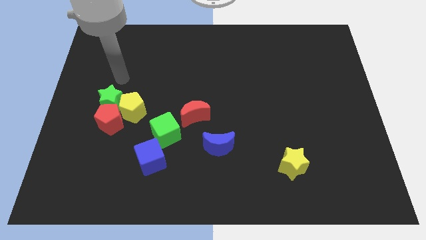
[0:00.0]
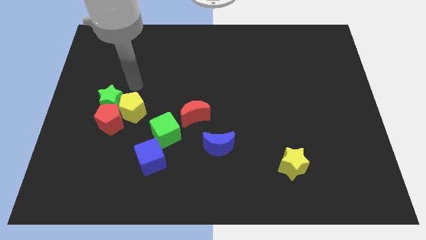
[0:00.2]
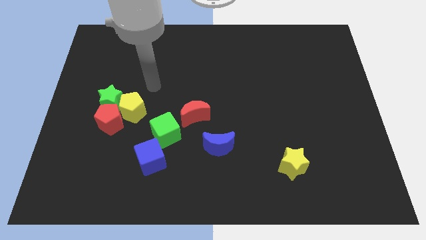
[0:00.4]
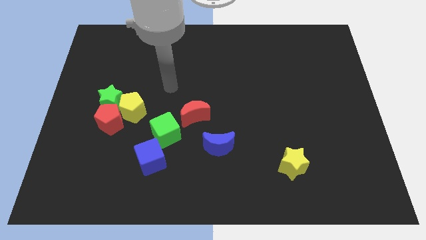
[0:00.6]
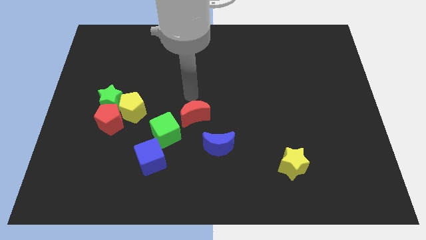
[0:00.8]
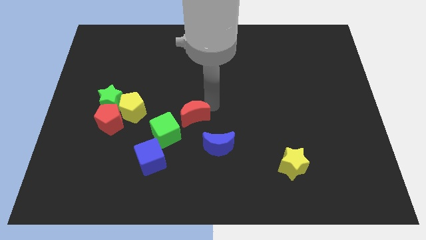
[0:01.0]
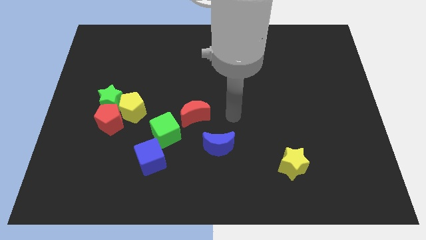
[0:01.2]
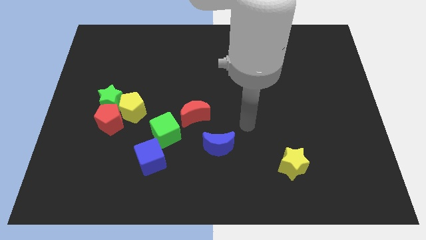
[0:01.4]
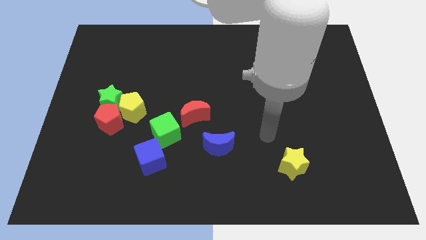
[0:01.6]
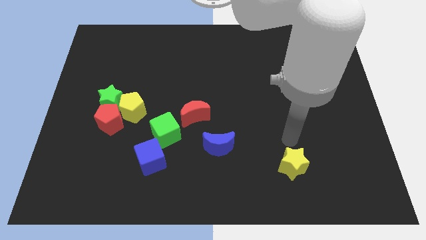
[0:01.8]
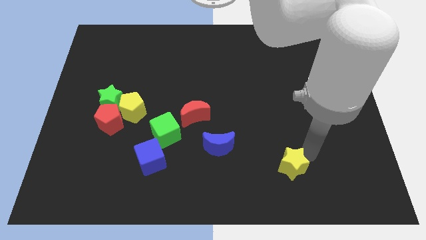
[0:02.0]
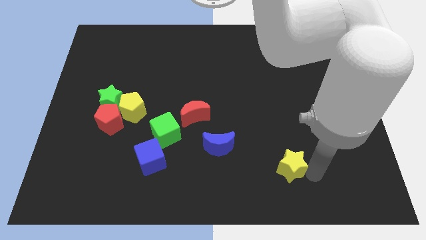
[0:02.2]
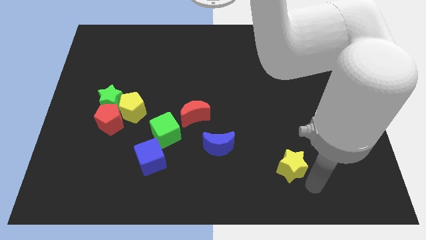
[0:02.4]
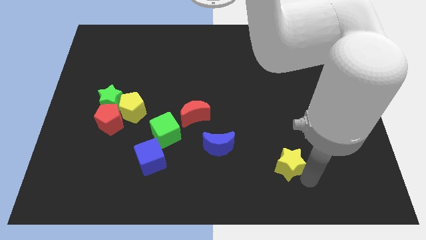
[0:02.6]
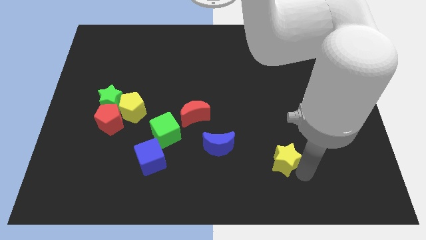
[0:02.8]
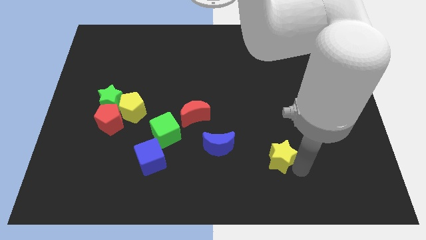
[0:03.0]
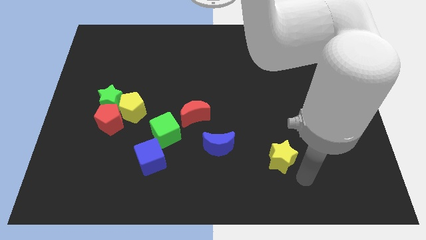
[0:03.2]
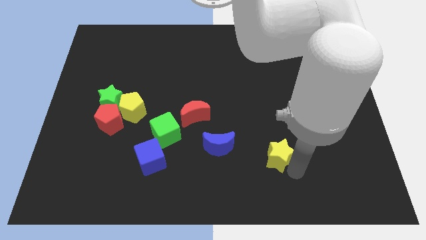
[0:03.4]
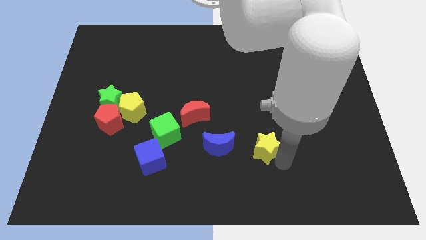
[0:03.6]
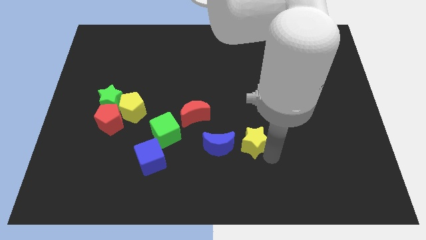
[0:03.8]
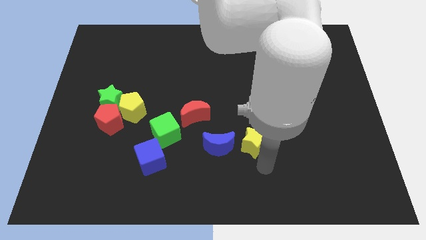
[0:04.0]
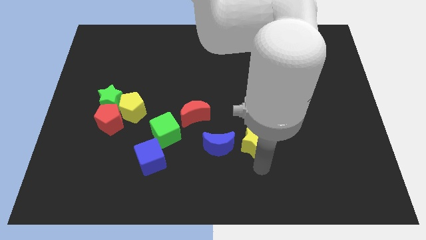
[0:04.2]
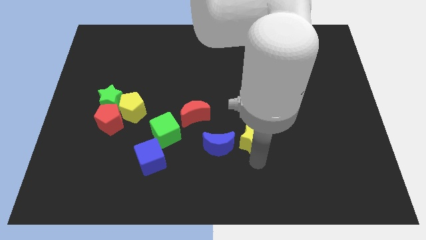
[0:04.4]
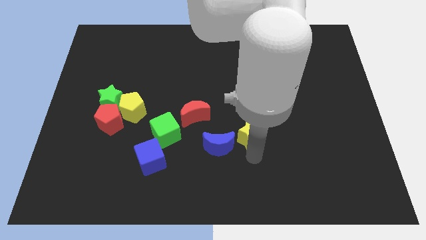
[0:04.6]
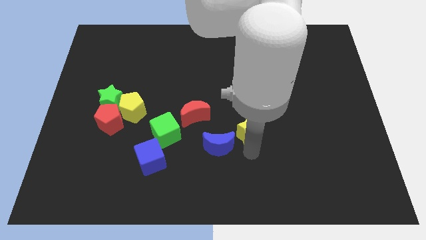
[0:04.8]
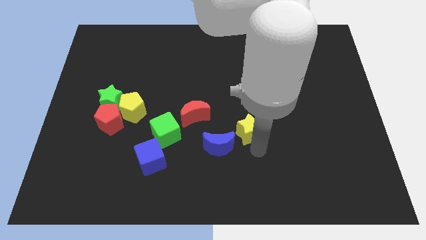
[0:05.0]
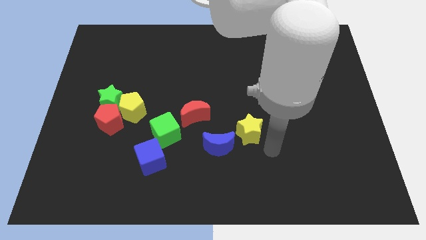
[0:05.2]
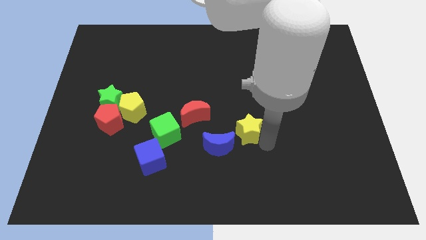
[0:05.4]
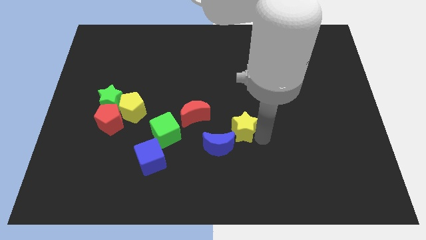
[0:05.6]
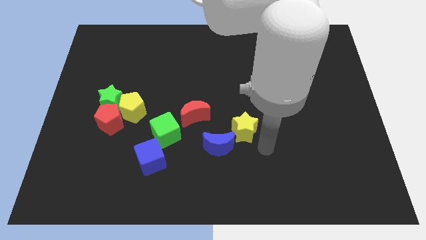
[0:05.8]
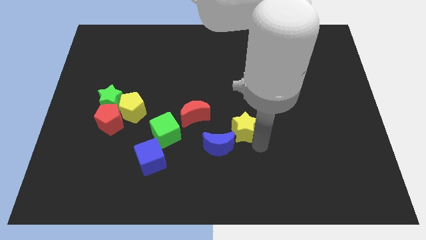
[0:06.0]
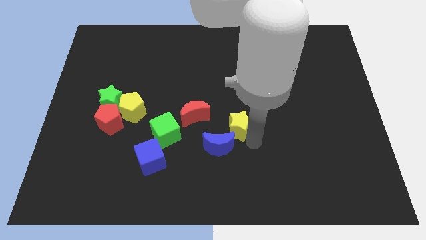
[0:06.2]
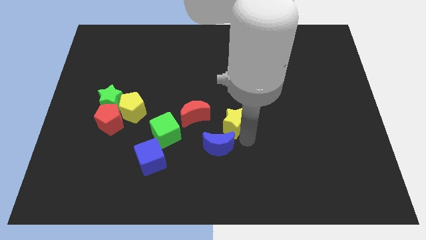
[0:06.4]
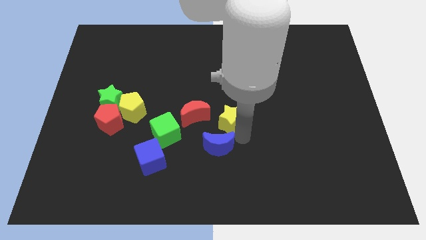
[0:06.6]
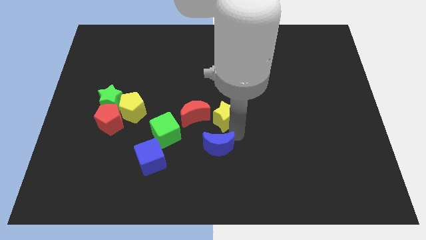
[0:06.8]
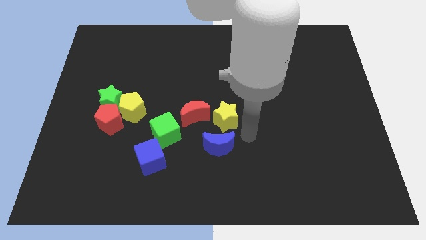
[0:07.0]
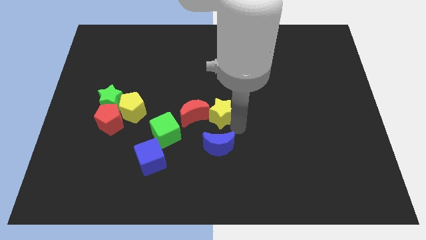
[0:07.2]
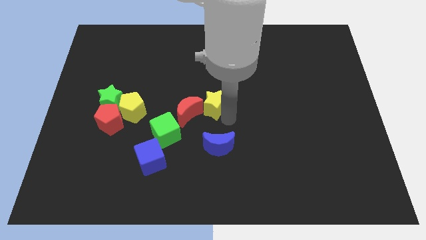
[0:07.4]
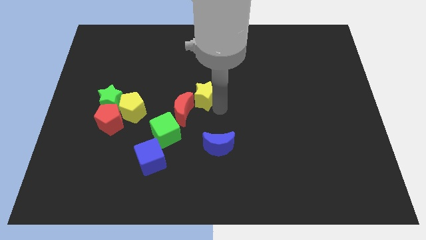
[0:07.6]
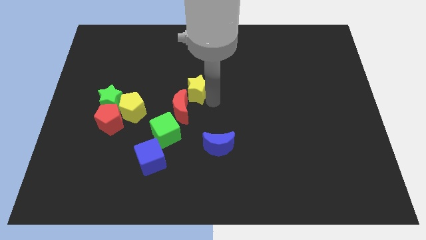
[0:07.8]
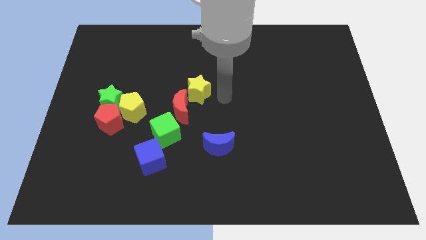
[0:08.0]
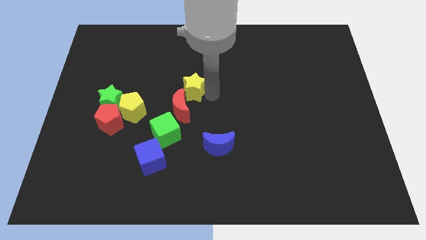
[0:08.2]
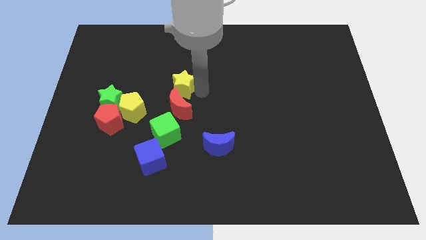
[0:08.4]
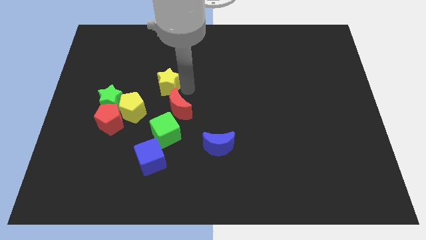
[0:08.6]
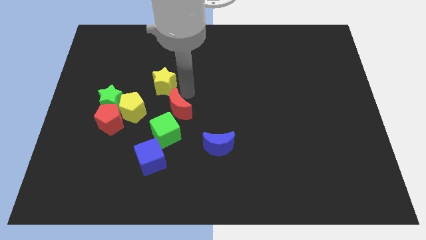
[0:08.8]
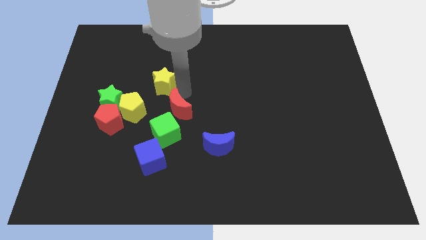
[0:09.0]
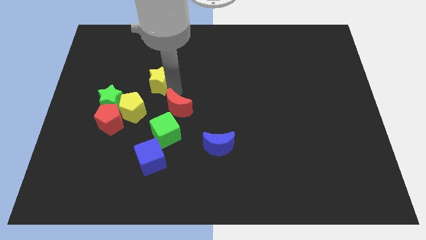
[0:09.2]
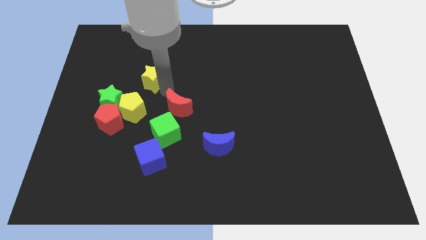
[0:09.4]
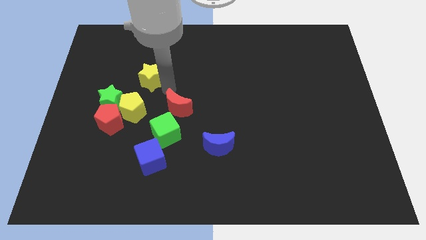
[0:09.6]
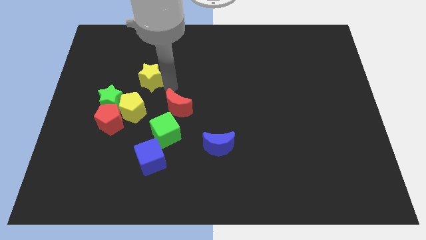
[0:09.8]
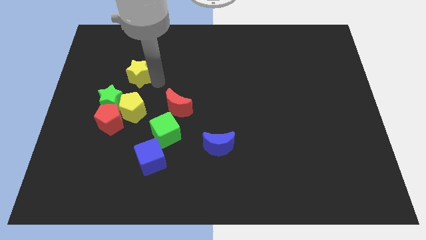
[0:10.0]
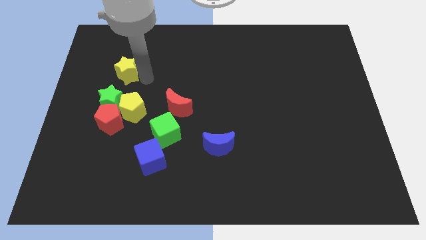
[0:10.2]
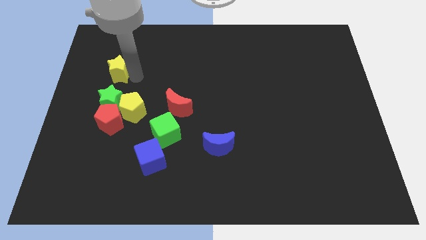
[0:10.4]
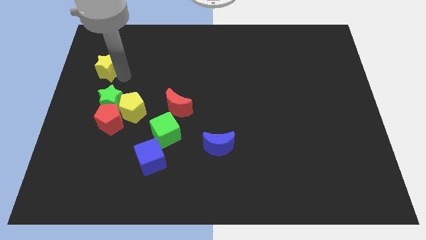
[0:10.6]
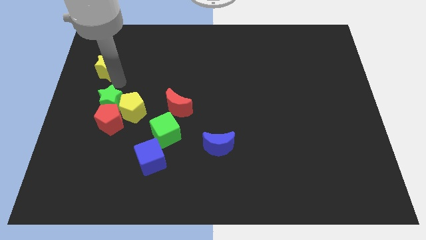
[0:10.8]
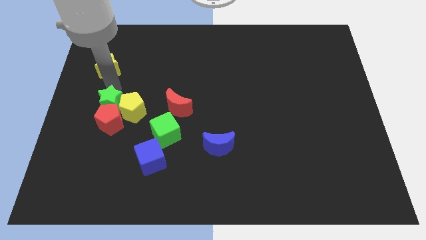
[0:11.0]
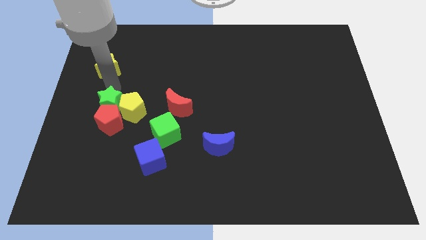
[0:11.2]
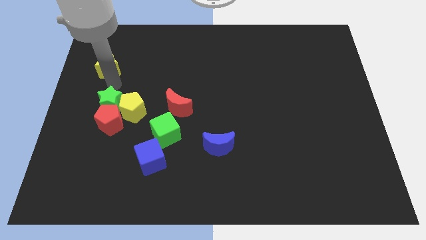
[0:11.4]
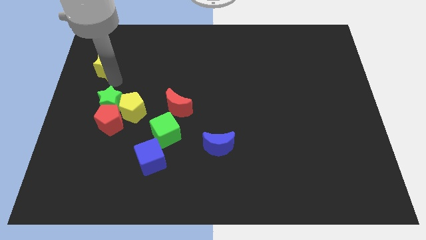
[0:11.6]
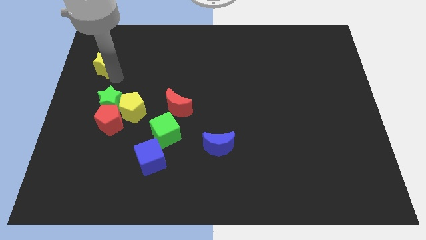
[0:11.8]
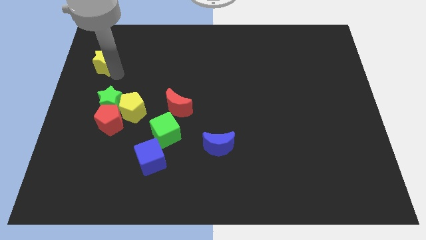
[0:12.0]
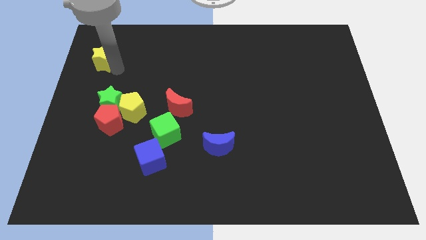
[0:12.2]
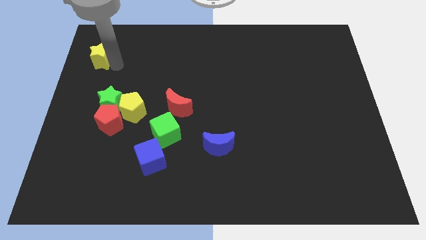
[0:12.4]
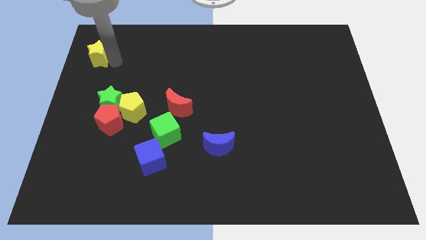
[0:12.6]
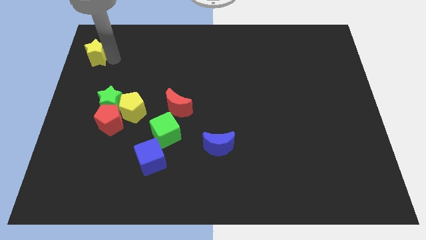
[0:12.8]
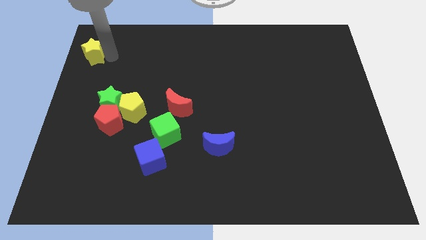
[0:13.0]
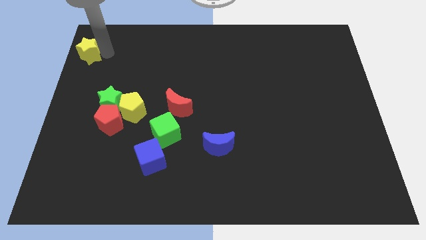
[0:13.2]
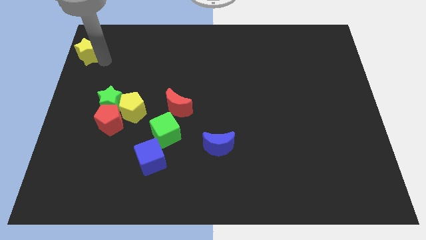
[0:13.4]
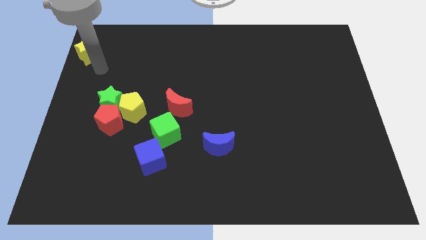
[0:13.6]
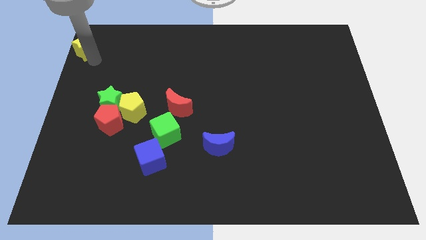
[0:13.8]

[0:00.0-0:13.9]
slide the yellow star to the upper left corner
